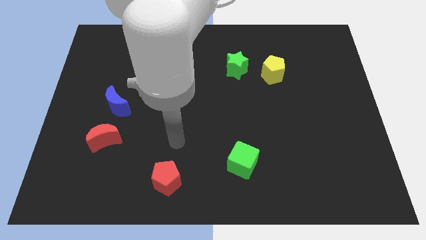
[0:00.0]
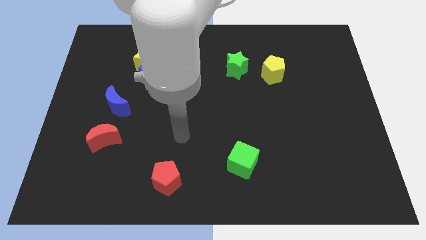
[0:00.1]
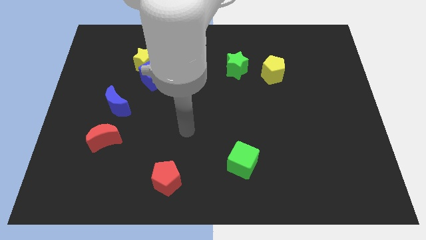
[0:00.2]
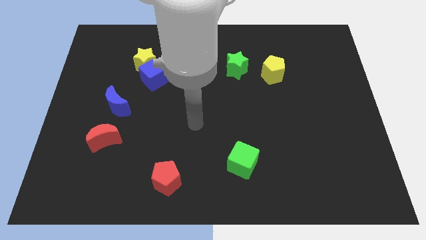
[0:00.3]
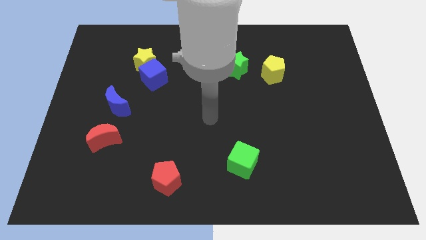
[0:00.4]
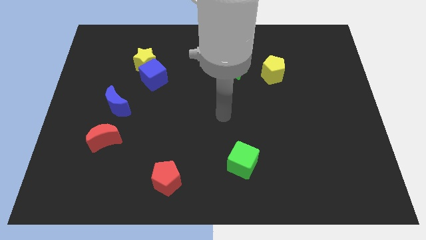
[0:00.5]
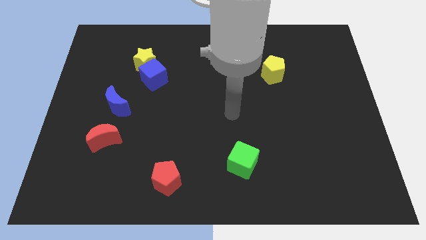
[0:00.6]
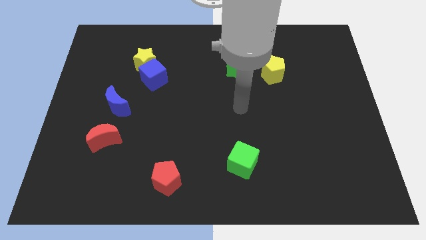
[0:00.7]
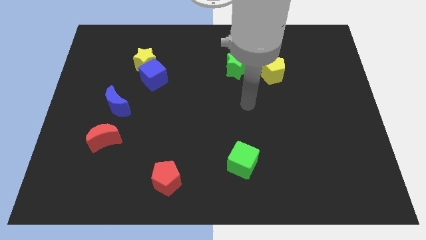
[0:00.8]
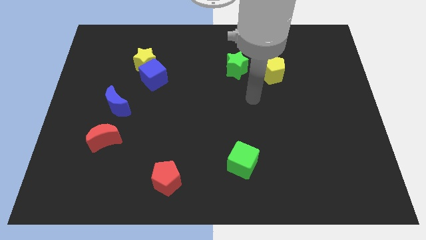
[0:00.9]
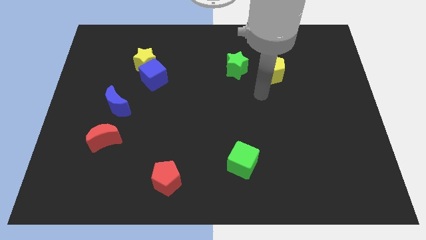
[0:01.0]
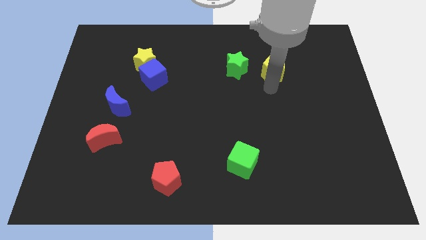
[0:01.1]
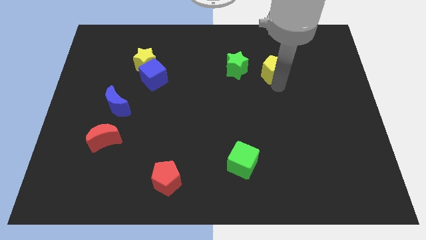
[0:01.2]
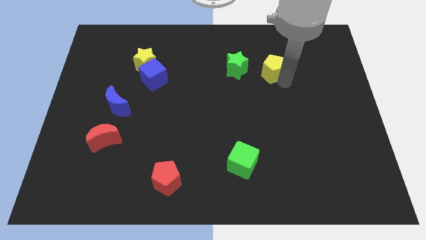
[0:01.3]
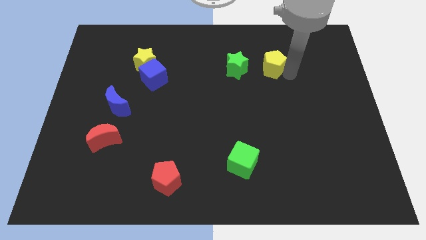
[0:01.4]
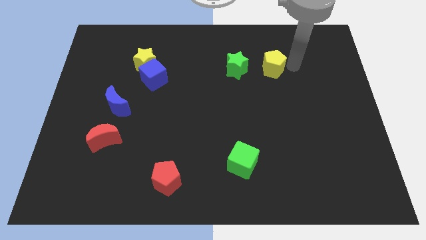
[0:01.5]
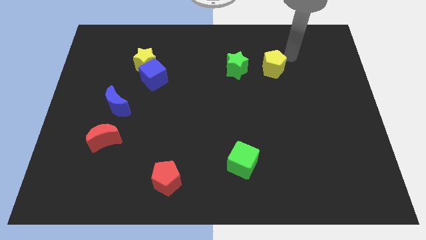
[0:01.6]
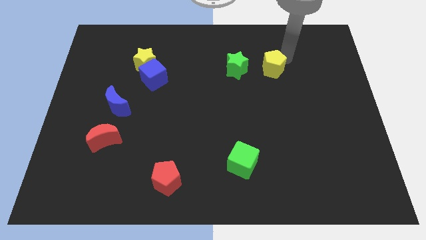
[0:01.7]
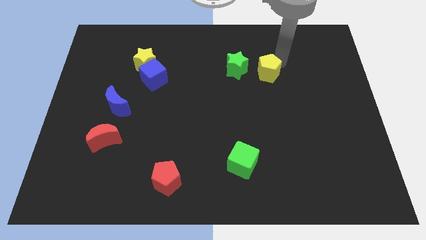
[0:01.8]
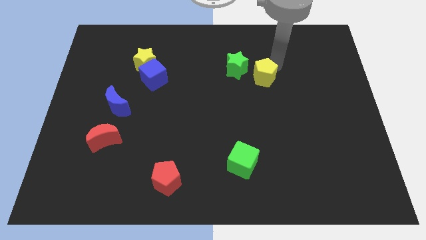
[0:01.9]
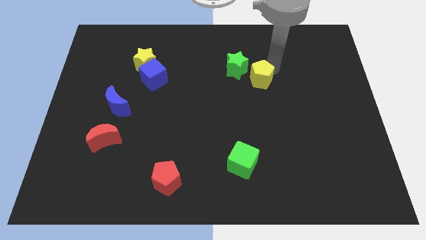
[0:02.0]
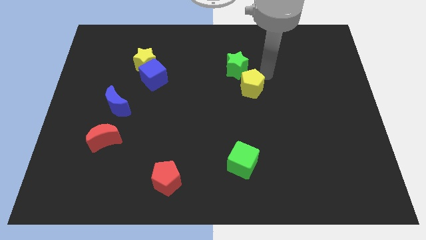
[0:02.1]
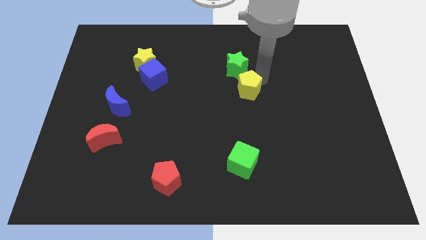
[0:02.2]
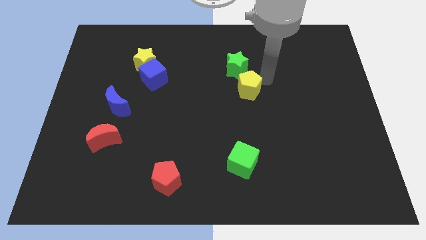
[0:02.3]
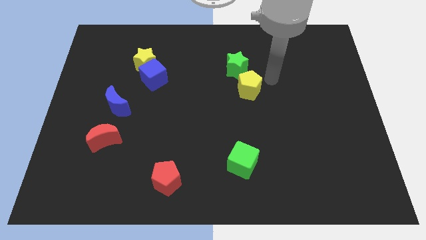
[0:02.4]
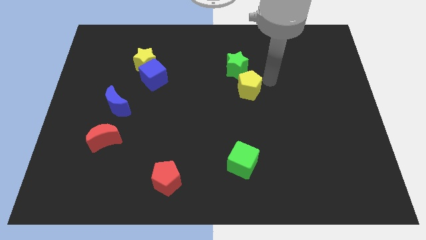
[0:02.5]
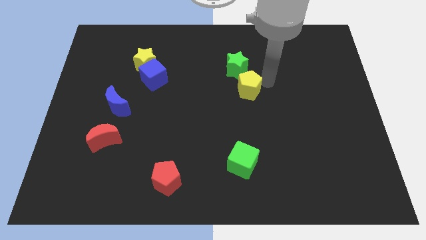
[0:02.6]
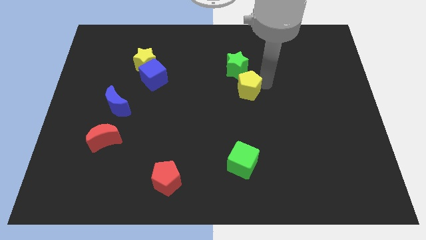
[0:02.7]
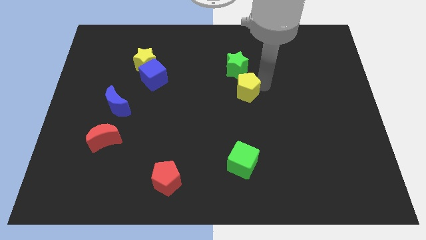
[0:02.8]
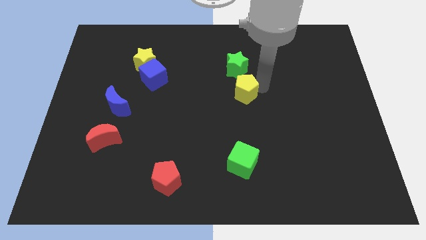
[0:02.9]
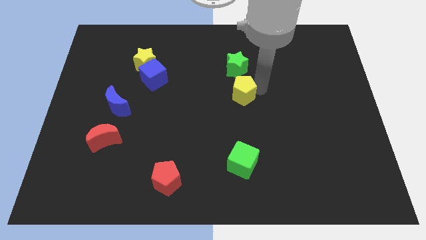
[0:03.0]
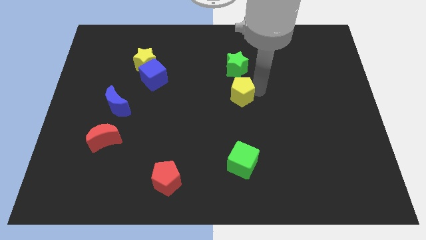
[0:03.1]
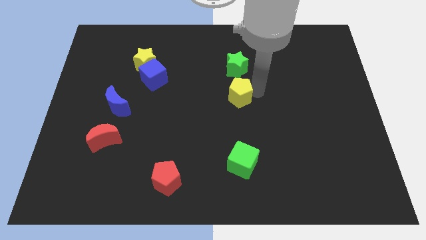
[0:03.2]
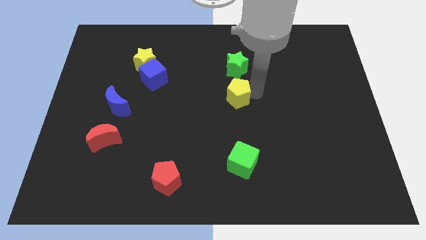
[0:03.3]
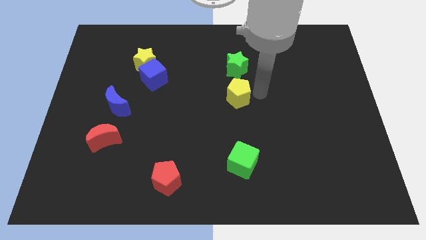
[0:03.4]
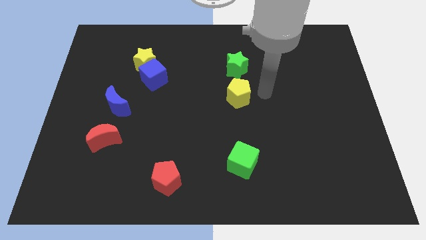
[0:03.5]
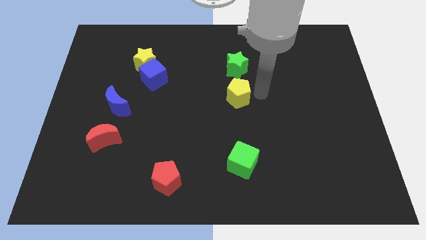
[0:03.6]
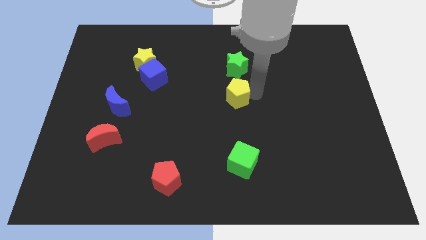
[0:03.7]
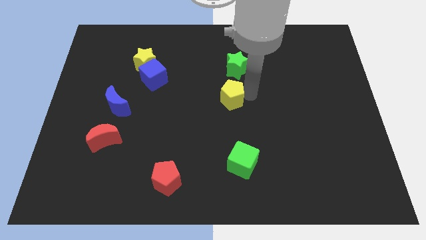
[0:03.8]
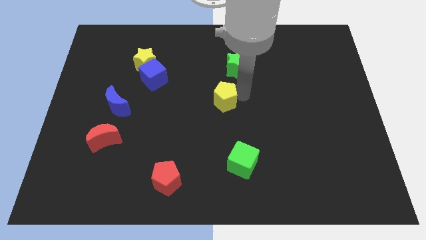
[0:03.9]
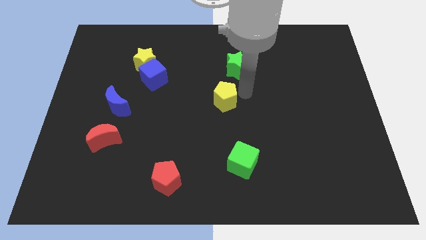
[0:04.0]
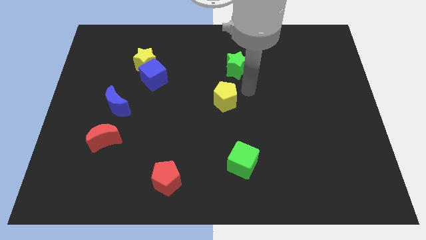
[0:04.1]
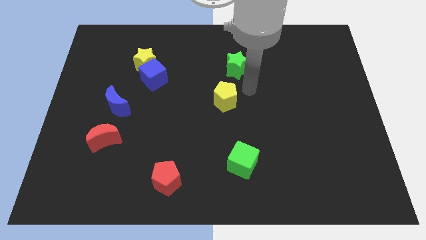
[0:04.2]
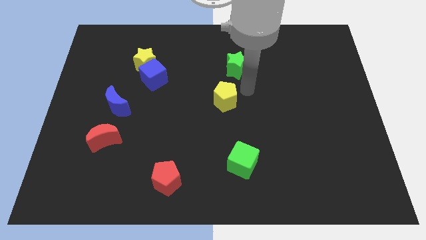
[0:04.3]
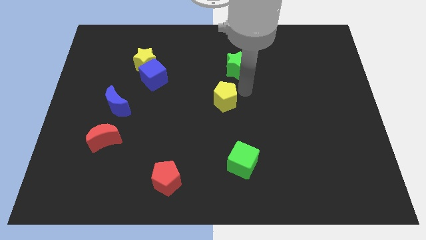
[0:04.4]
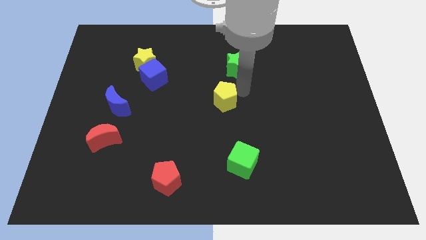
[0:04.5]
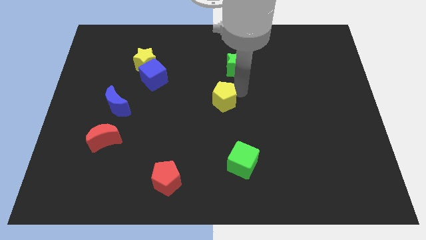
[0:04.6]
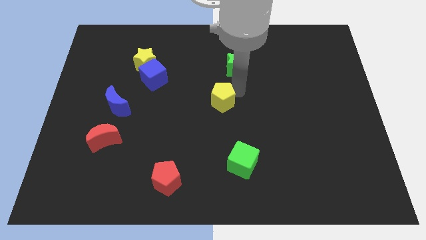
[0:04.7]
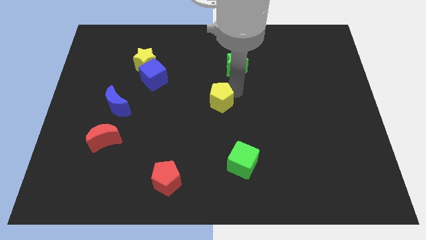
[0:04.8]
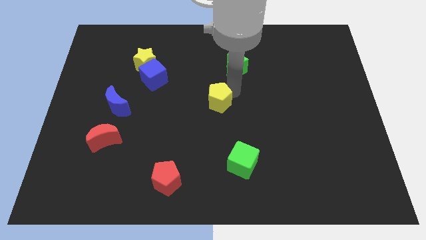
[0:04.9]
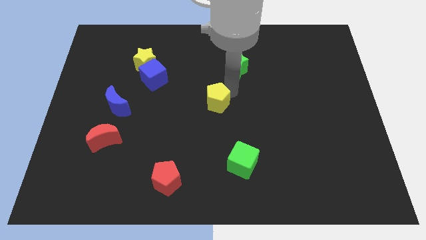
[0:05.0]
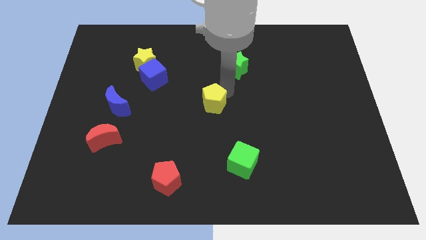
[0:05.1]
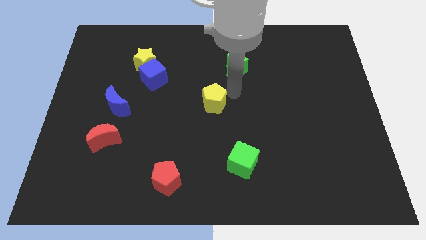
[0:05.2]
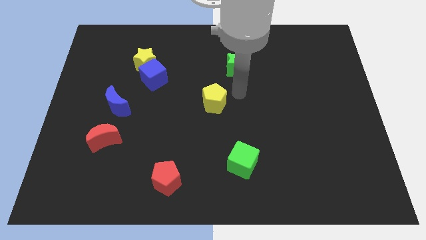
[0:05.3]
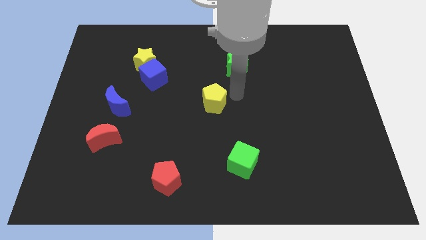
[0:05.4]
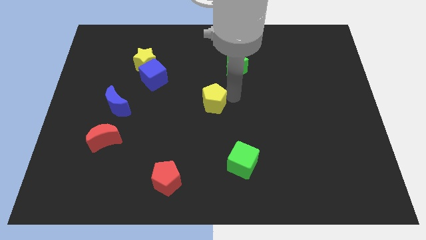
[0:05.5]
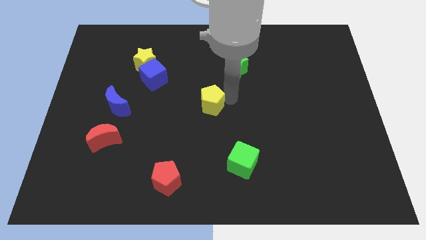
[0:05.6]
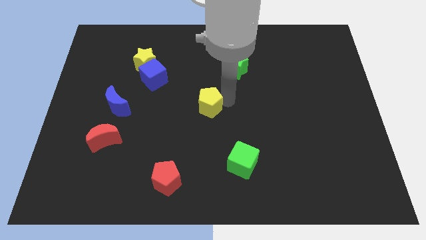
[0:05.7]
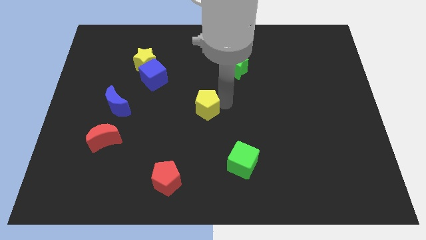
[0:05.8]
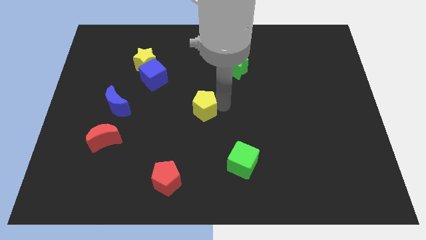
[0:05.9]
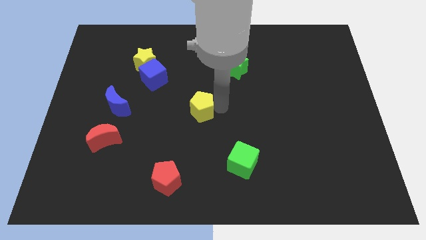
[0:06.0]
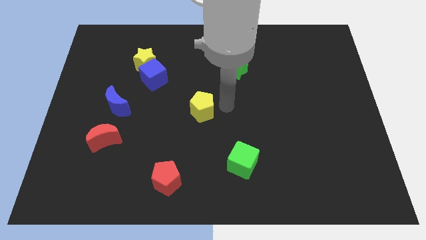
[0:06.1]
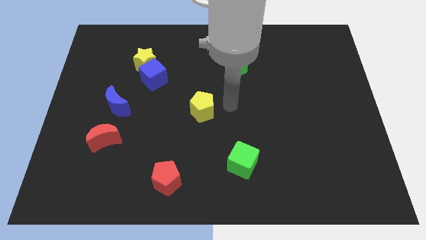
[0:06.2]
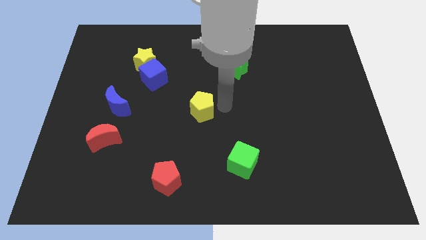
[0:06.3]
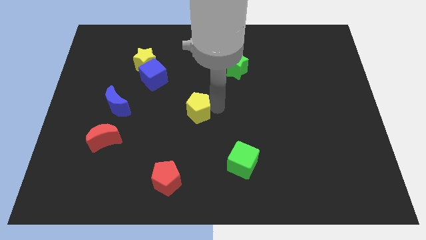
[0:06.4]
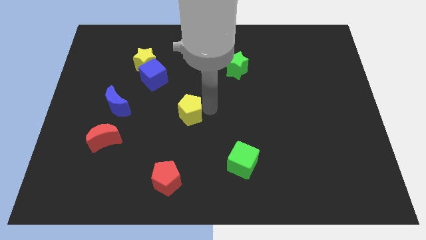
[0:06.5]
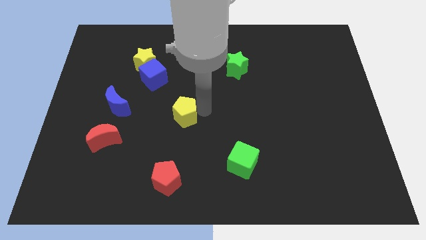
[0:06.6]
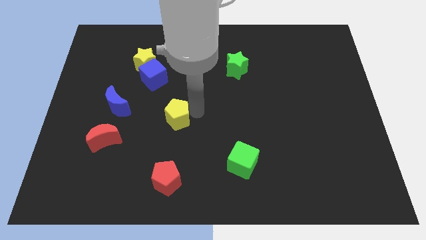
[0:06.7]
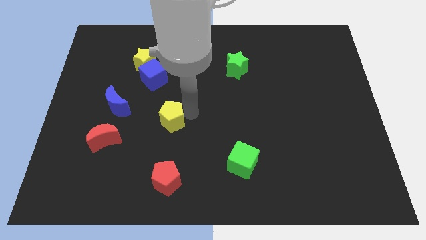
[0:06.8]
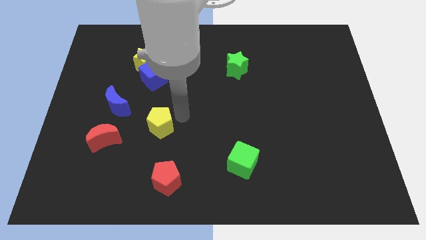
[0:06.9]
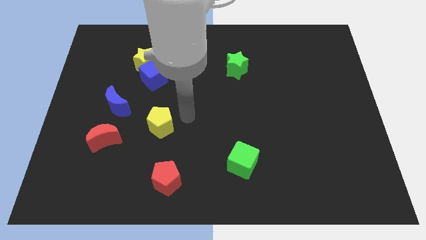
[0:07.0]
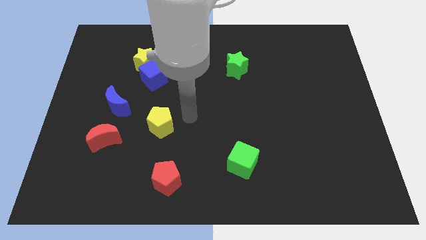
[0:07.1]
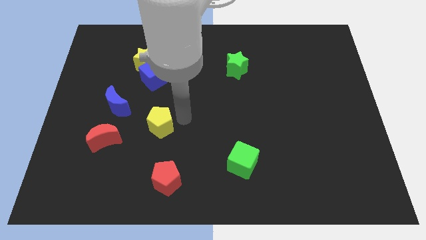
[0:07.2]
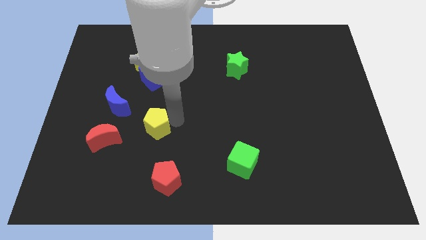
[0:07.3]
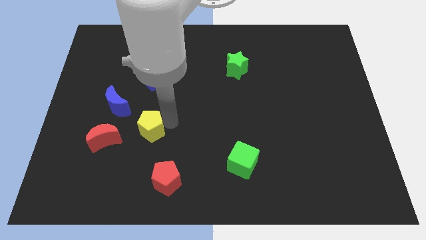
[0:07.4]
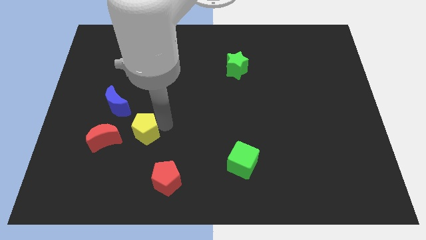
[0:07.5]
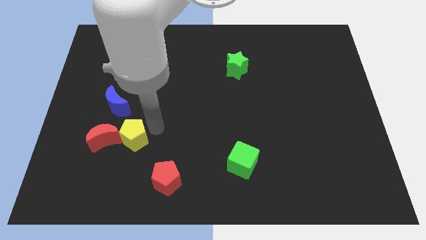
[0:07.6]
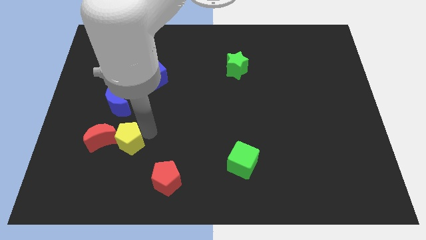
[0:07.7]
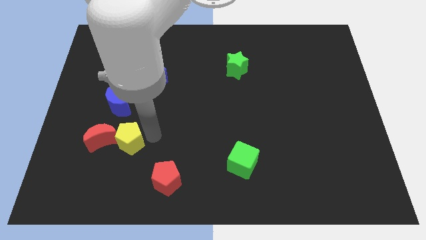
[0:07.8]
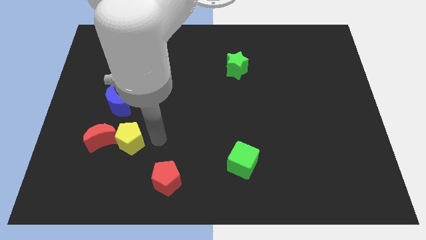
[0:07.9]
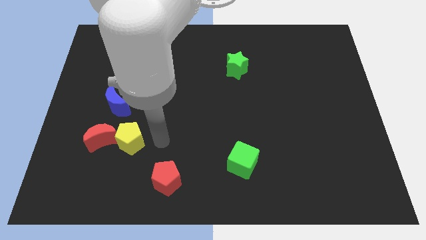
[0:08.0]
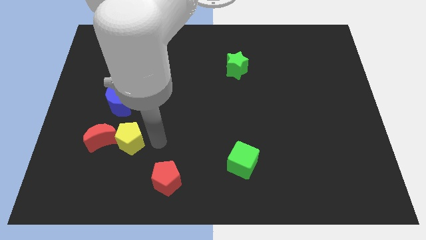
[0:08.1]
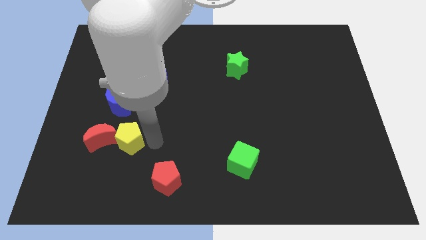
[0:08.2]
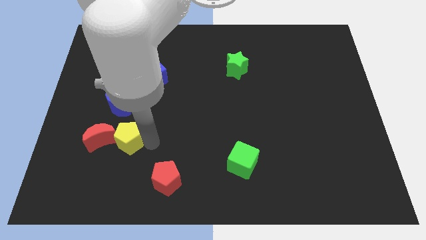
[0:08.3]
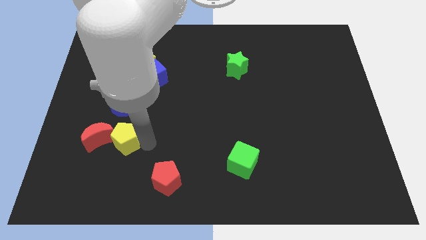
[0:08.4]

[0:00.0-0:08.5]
put the yellow pentagon to the red moon
